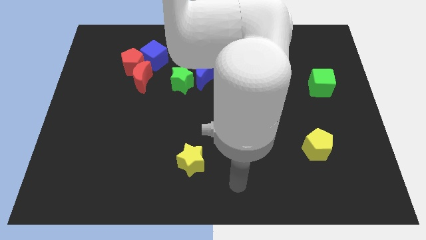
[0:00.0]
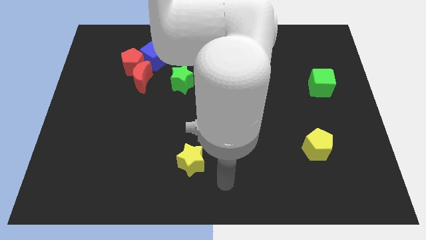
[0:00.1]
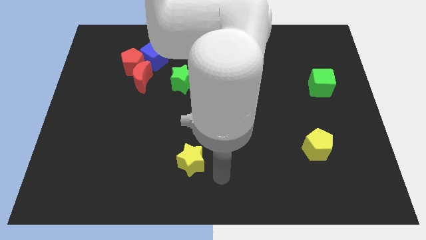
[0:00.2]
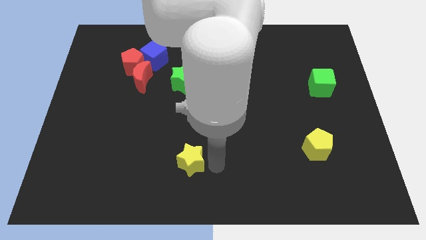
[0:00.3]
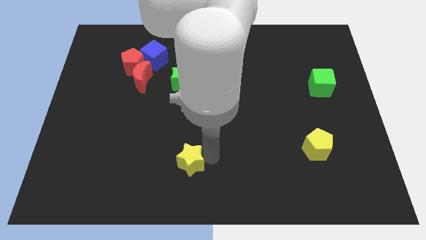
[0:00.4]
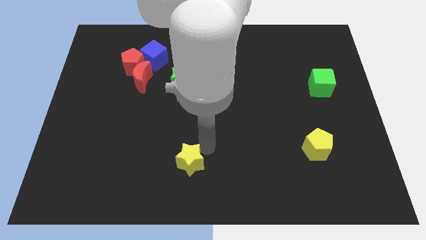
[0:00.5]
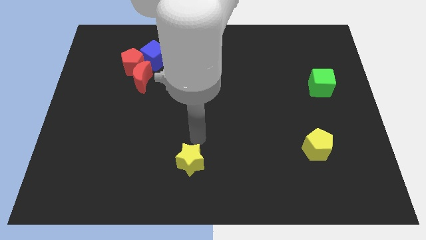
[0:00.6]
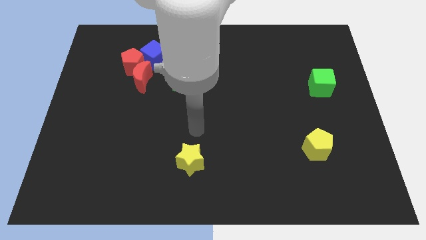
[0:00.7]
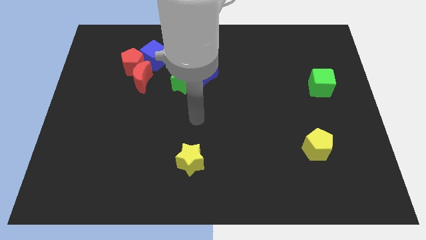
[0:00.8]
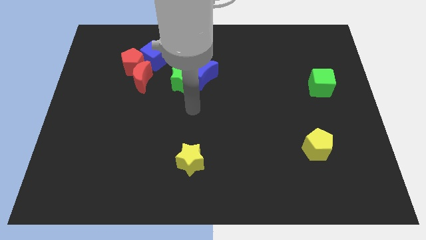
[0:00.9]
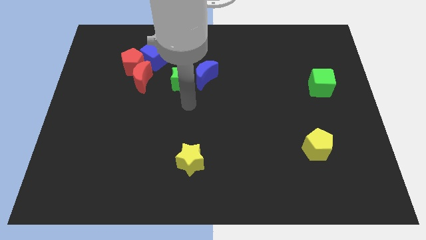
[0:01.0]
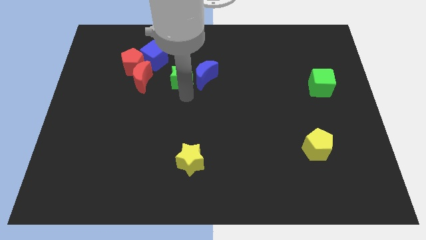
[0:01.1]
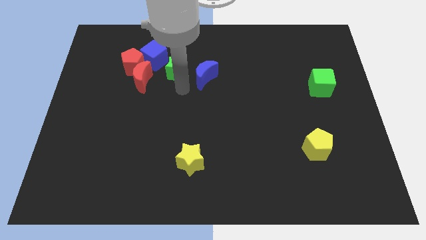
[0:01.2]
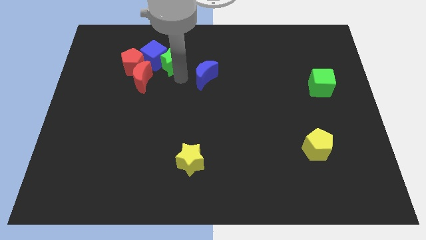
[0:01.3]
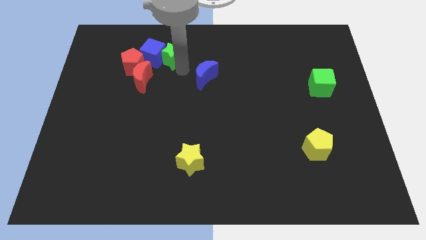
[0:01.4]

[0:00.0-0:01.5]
separate the blue moon from the green star

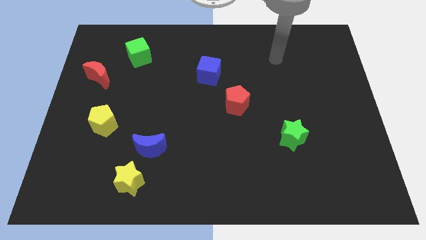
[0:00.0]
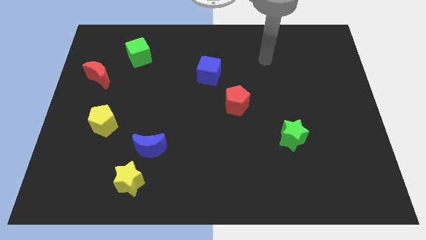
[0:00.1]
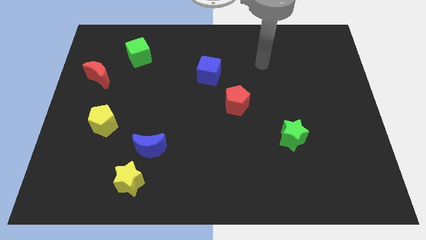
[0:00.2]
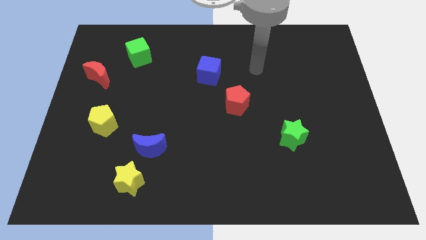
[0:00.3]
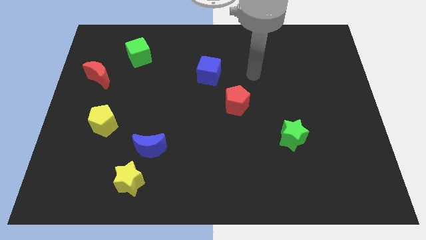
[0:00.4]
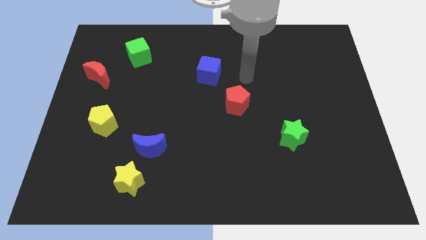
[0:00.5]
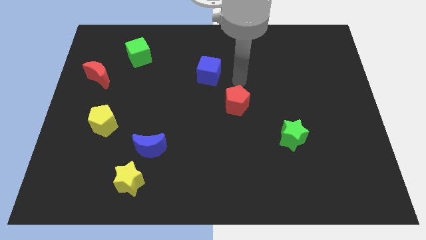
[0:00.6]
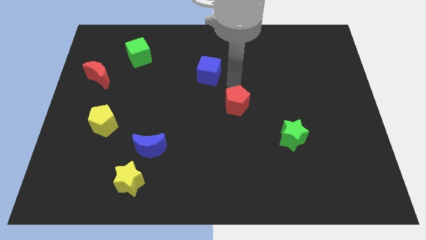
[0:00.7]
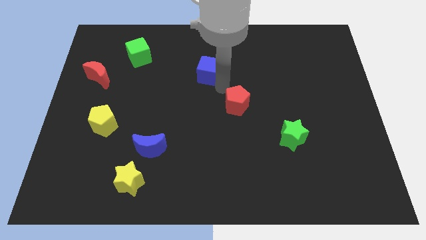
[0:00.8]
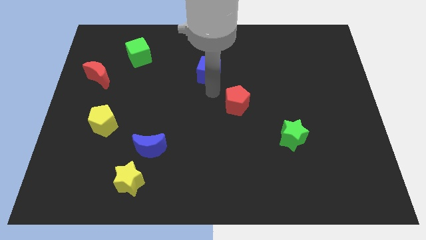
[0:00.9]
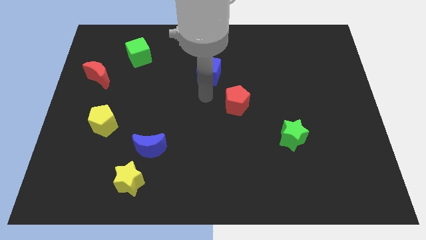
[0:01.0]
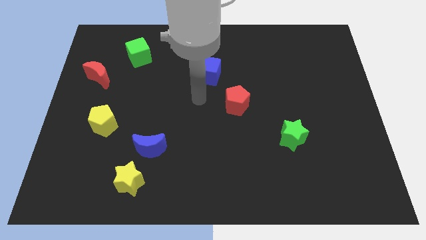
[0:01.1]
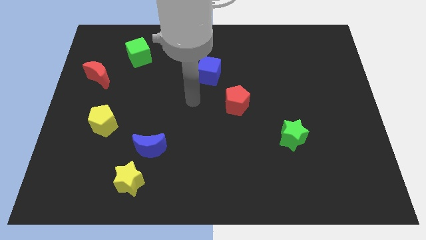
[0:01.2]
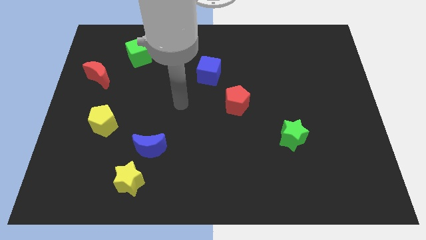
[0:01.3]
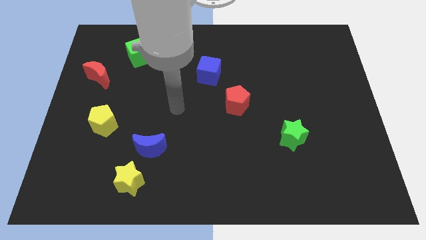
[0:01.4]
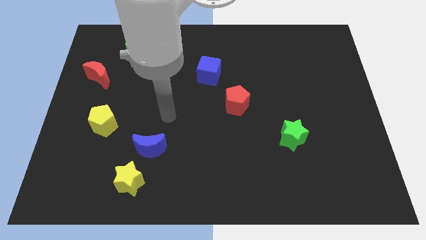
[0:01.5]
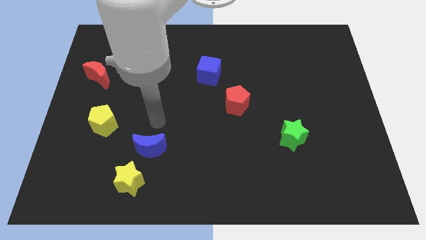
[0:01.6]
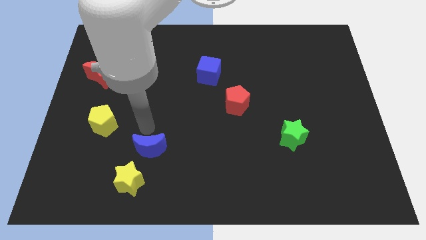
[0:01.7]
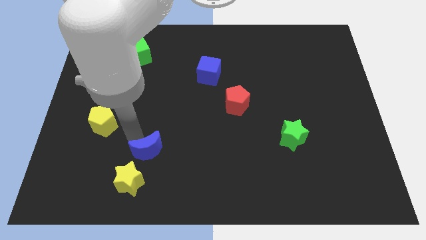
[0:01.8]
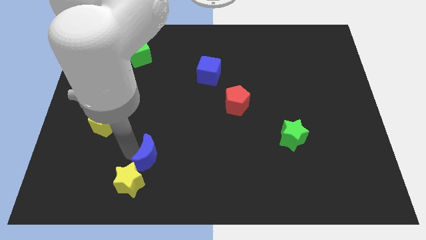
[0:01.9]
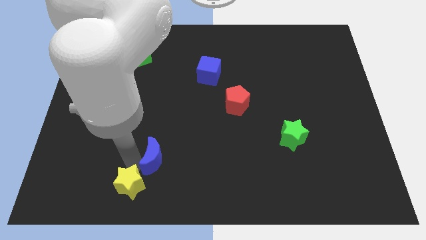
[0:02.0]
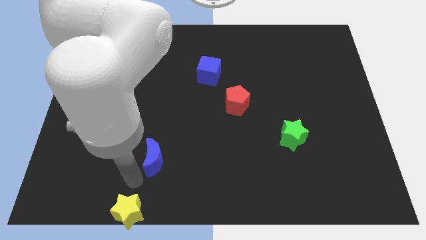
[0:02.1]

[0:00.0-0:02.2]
move the blue moon away from the yellow star

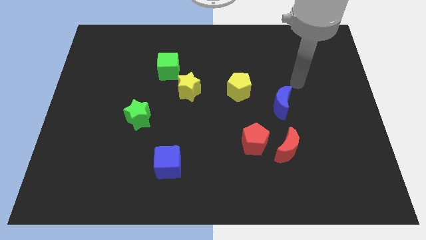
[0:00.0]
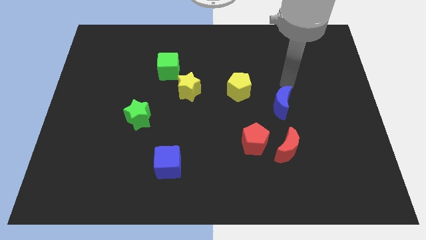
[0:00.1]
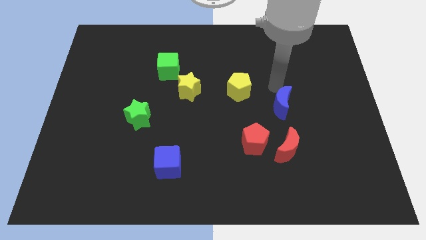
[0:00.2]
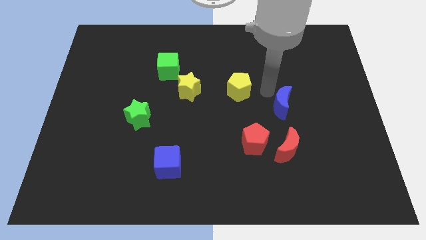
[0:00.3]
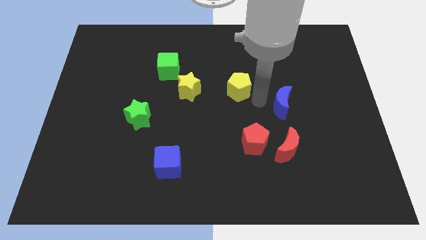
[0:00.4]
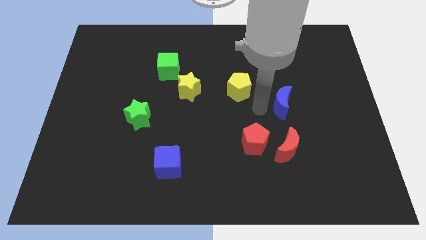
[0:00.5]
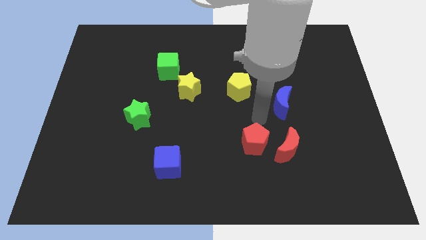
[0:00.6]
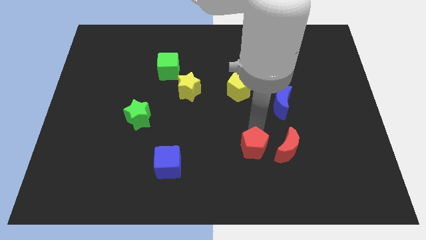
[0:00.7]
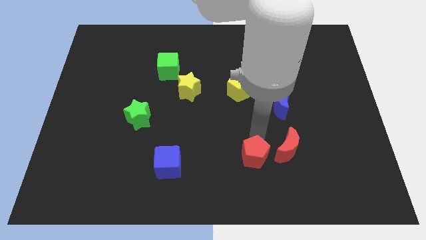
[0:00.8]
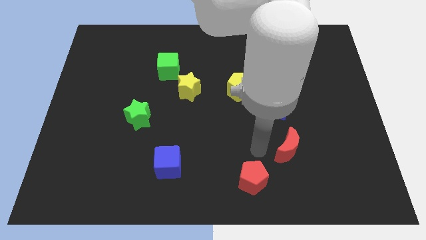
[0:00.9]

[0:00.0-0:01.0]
move the red moon away from the red pentagon

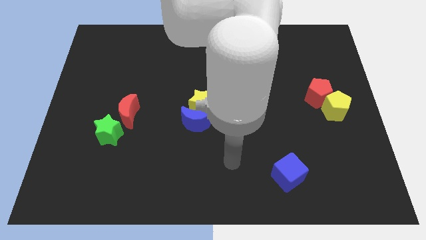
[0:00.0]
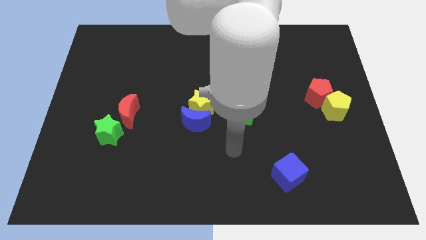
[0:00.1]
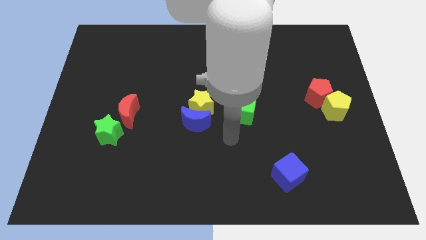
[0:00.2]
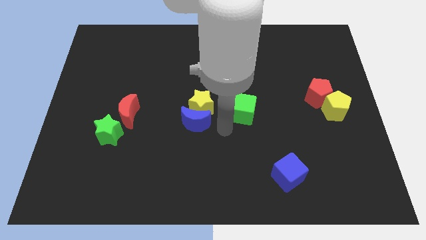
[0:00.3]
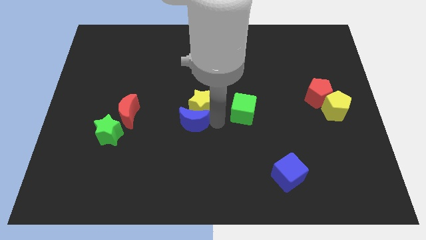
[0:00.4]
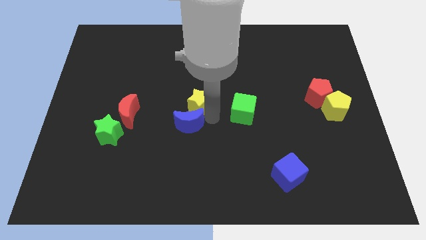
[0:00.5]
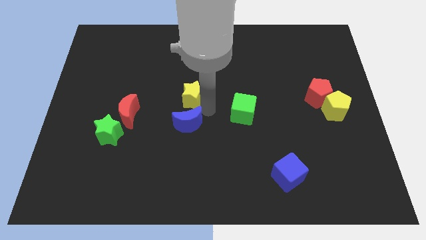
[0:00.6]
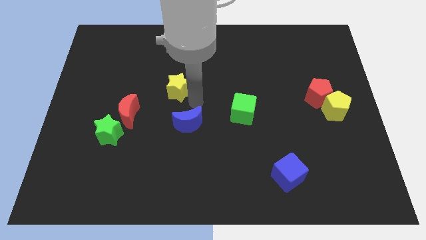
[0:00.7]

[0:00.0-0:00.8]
pull the blue moon apart from the yellow star

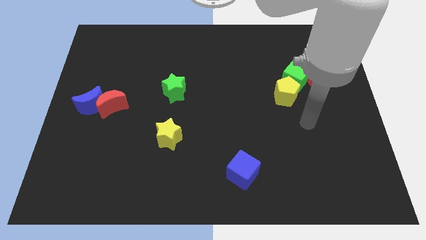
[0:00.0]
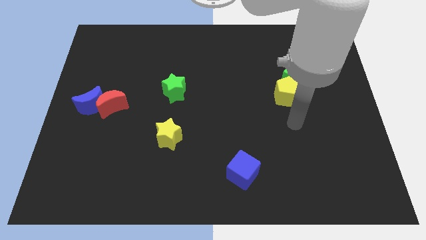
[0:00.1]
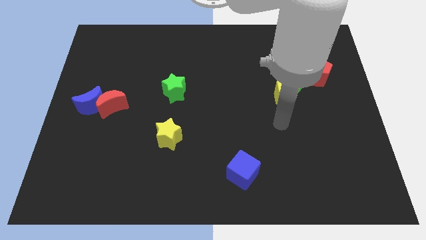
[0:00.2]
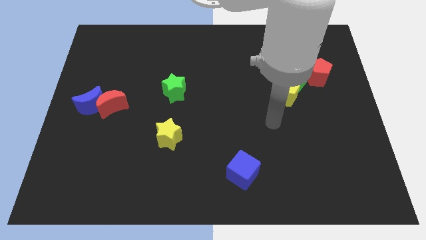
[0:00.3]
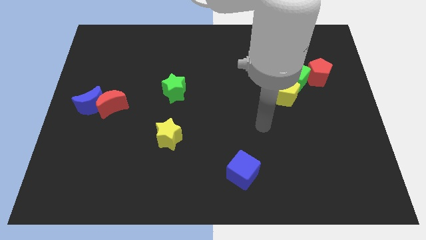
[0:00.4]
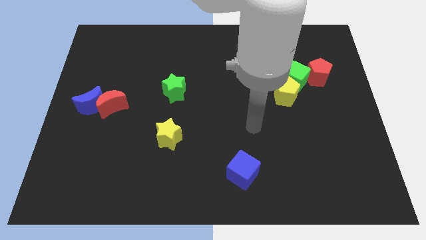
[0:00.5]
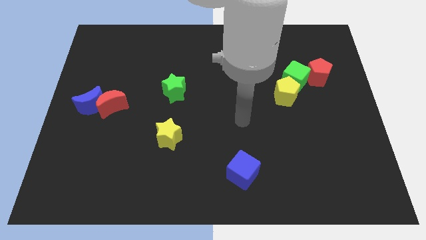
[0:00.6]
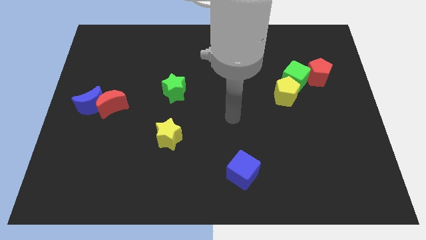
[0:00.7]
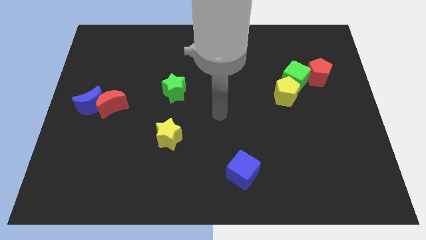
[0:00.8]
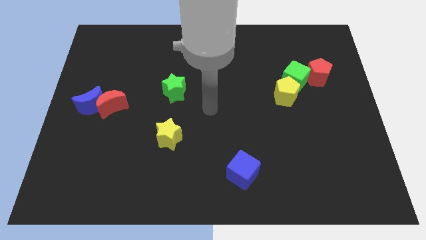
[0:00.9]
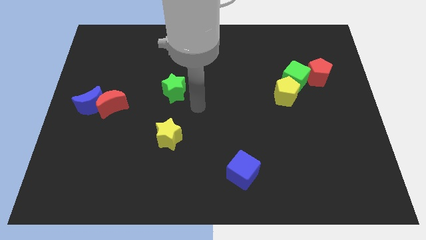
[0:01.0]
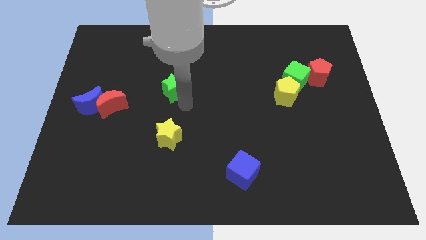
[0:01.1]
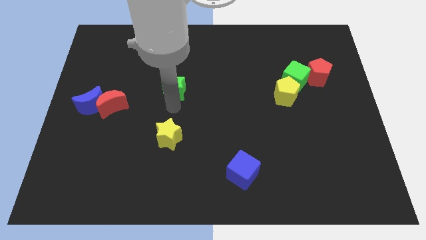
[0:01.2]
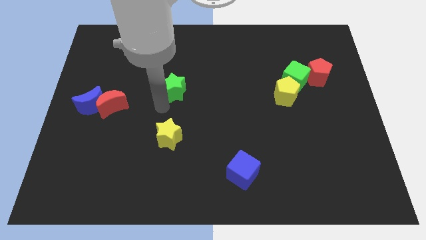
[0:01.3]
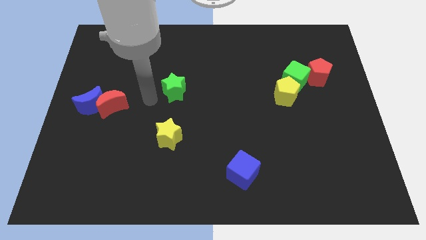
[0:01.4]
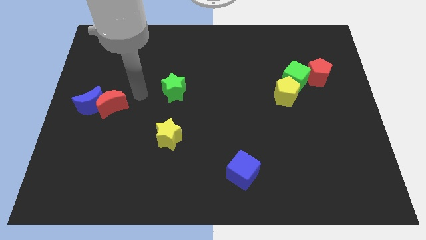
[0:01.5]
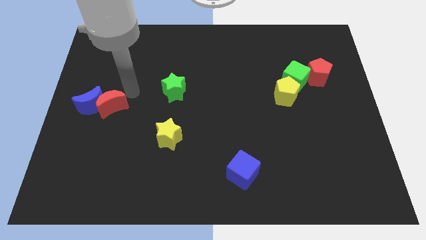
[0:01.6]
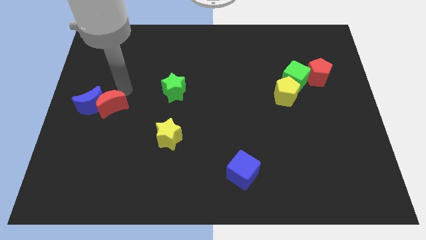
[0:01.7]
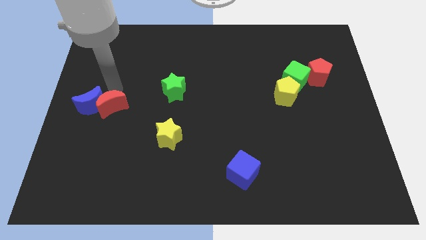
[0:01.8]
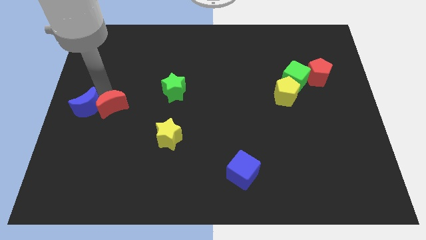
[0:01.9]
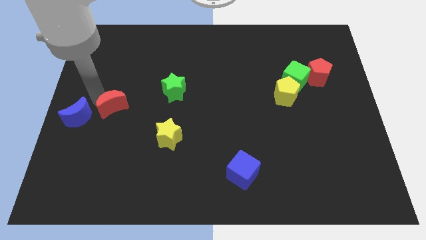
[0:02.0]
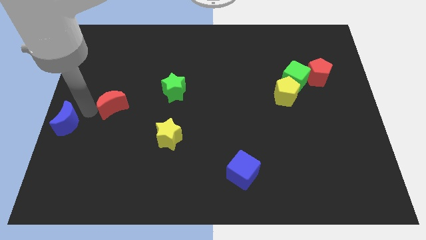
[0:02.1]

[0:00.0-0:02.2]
pull the red moon apart from the blue moon

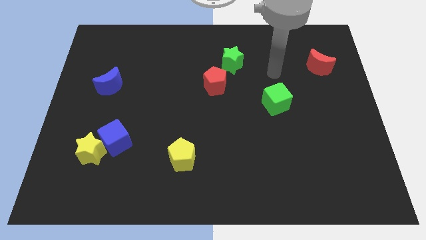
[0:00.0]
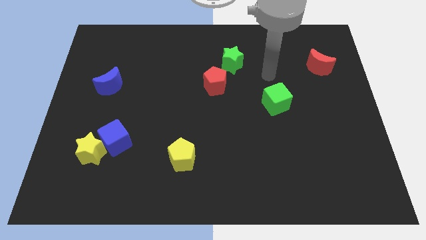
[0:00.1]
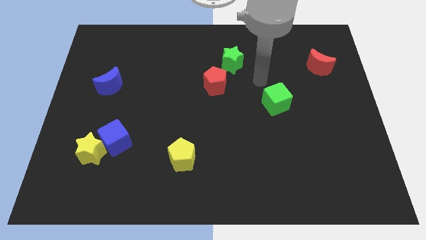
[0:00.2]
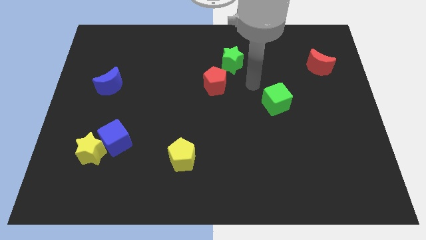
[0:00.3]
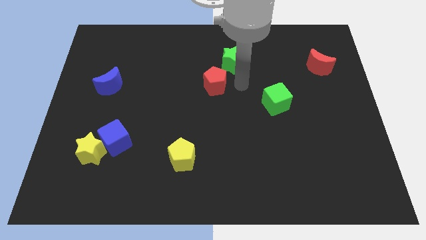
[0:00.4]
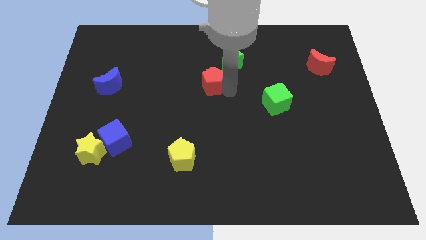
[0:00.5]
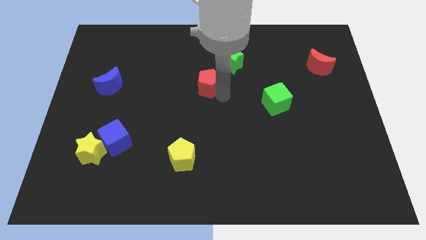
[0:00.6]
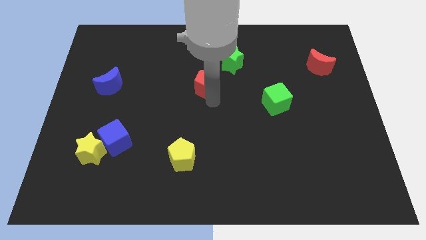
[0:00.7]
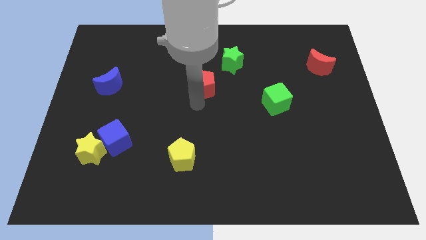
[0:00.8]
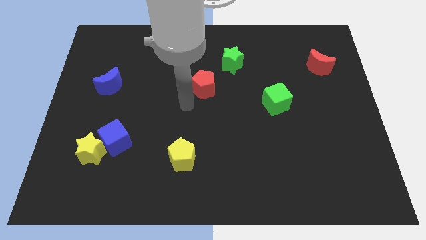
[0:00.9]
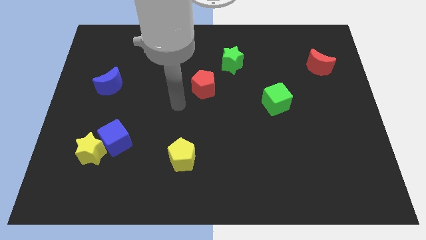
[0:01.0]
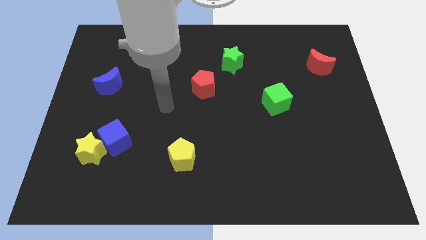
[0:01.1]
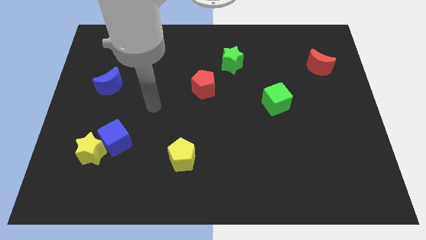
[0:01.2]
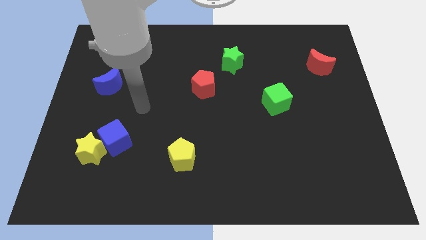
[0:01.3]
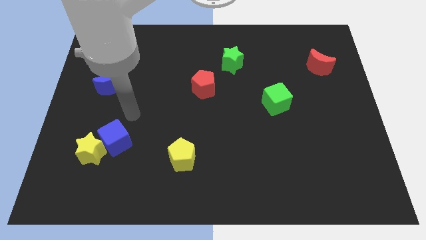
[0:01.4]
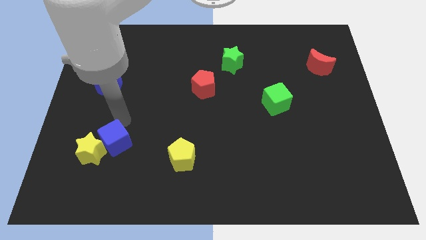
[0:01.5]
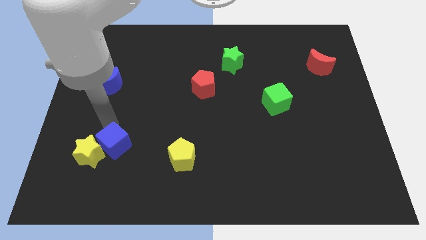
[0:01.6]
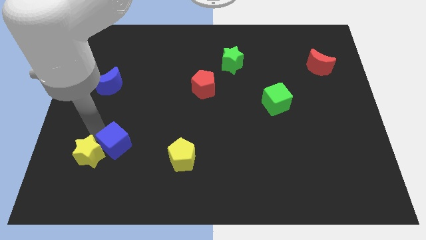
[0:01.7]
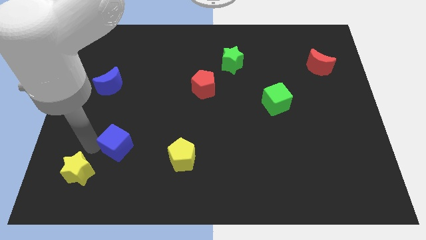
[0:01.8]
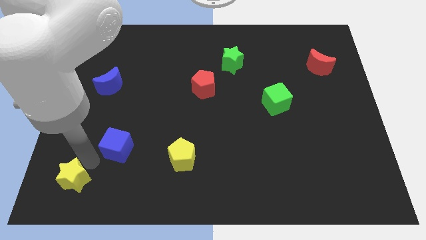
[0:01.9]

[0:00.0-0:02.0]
separate the blue cube from the yellow star
